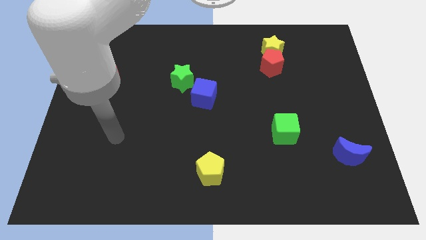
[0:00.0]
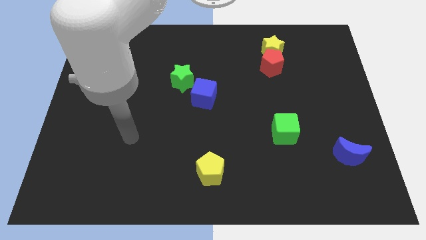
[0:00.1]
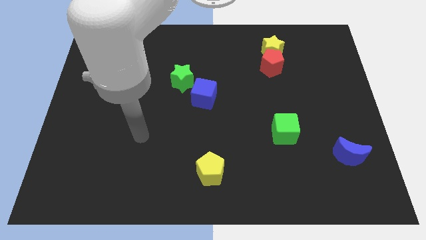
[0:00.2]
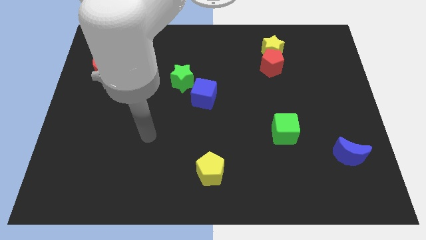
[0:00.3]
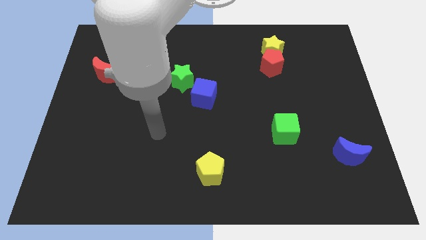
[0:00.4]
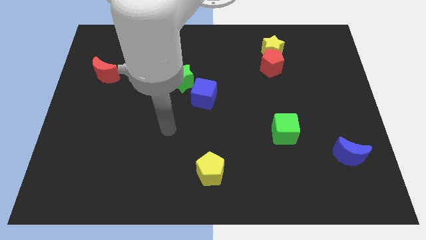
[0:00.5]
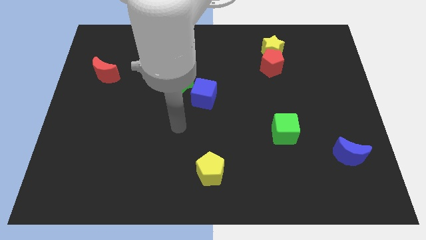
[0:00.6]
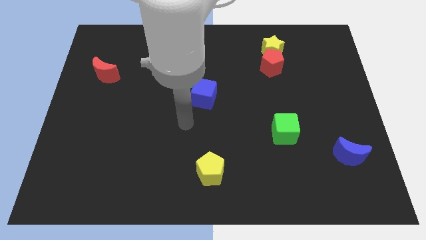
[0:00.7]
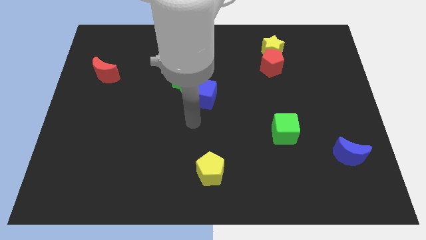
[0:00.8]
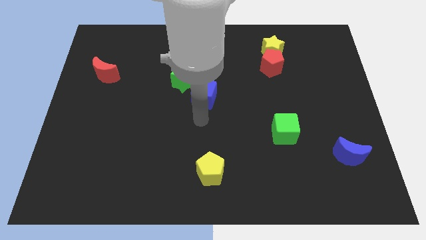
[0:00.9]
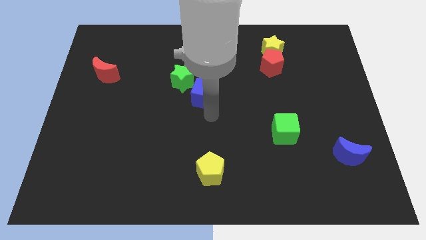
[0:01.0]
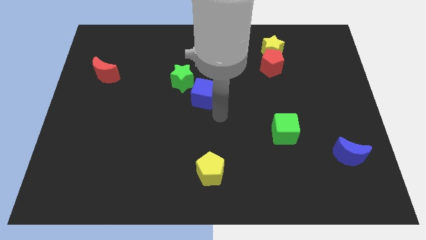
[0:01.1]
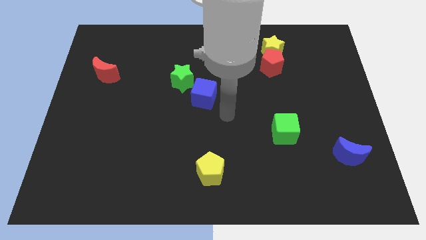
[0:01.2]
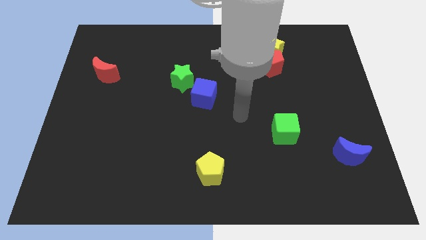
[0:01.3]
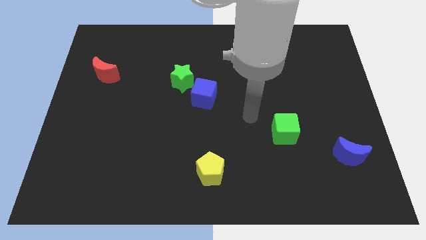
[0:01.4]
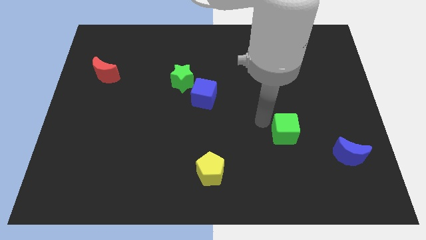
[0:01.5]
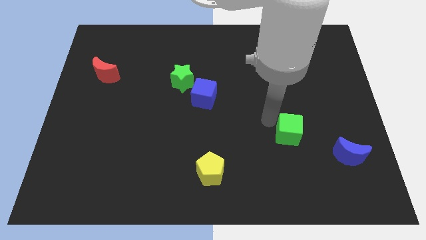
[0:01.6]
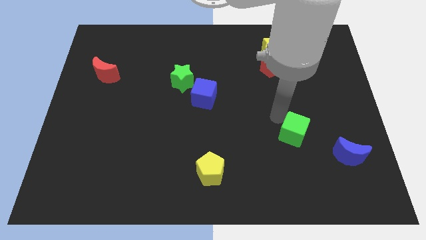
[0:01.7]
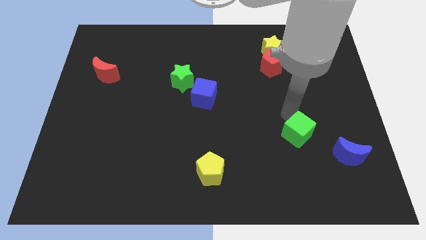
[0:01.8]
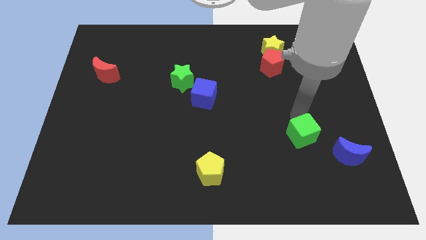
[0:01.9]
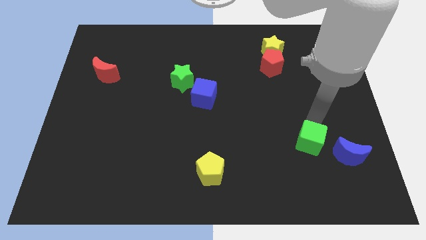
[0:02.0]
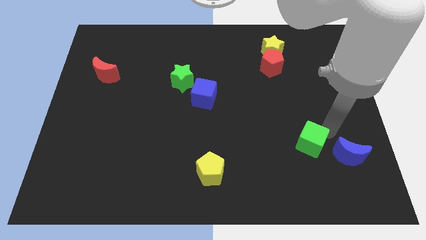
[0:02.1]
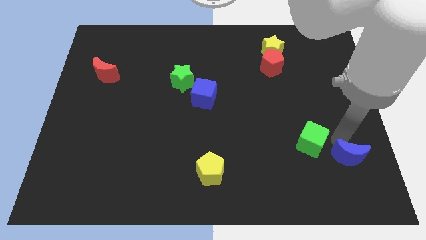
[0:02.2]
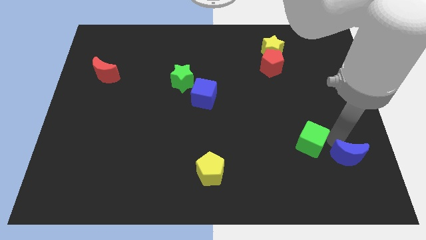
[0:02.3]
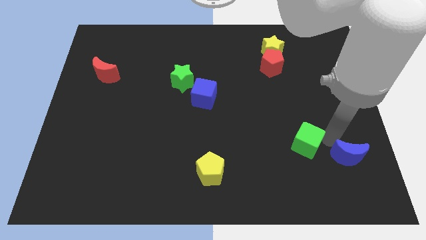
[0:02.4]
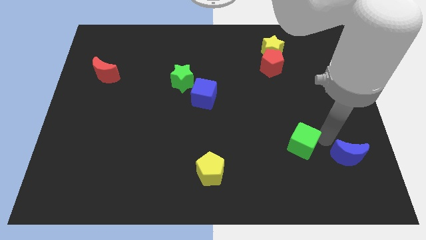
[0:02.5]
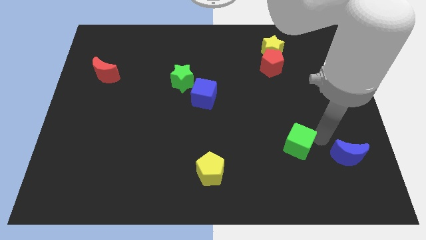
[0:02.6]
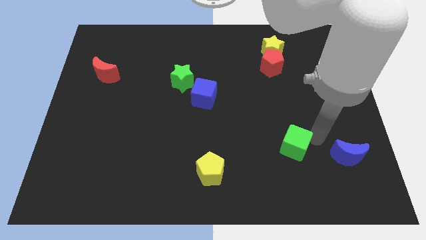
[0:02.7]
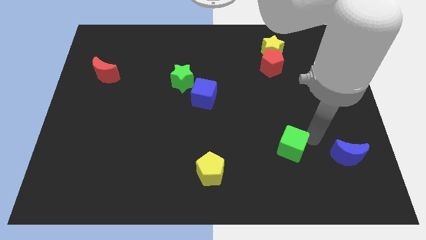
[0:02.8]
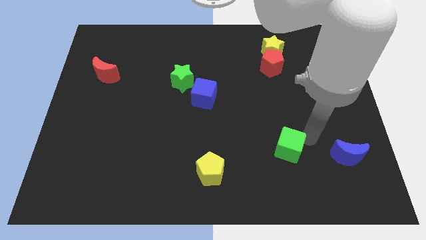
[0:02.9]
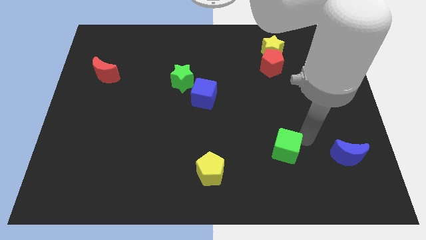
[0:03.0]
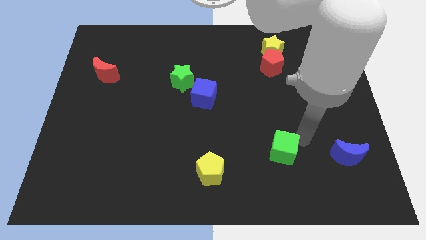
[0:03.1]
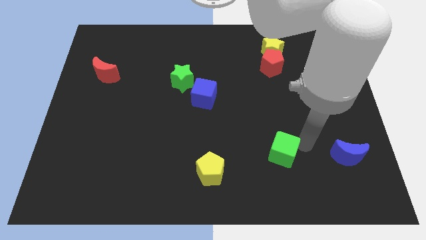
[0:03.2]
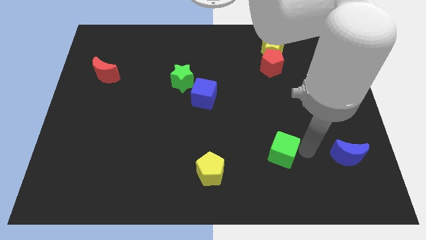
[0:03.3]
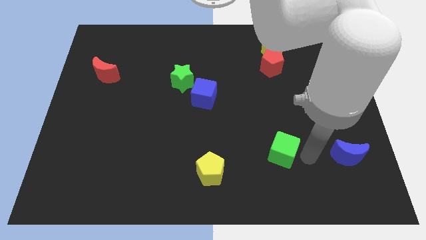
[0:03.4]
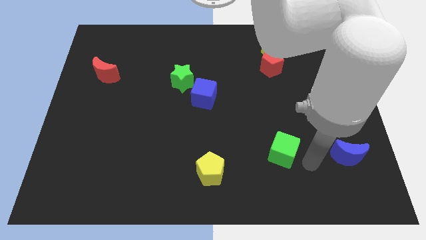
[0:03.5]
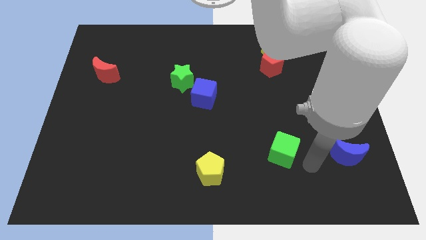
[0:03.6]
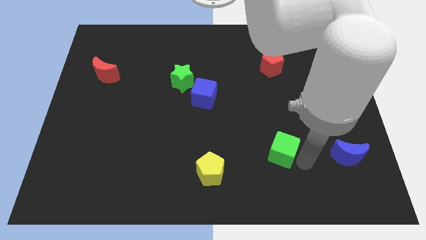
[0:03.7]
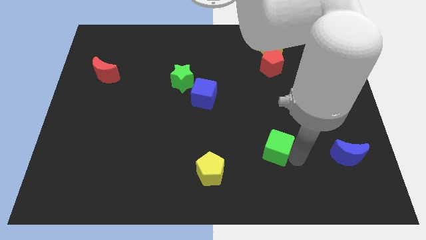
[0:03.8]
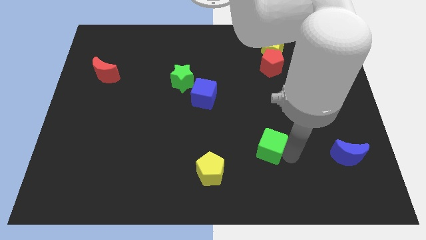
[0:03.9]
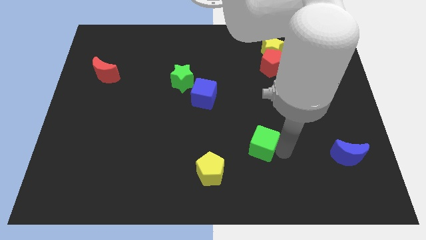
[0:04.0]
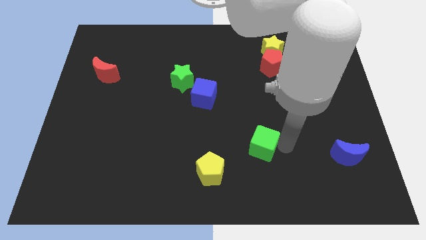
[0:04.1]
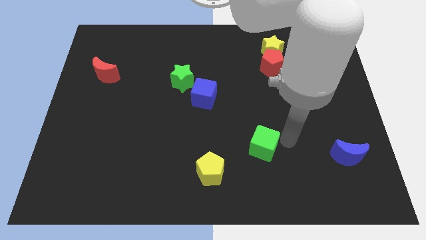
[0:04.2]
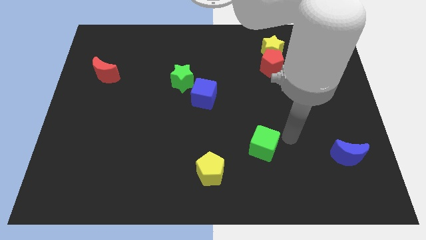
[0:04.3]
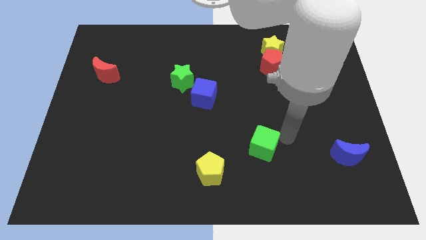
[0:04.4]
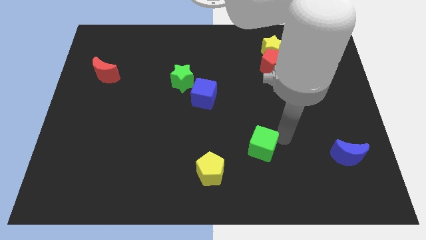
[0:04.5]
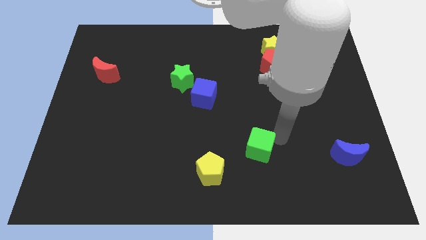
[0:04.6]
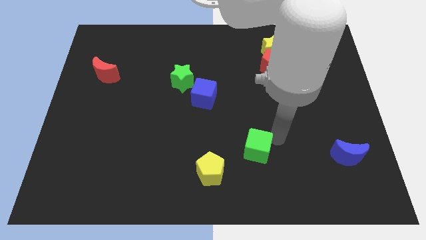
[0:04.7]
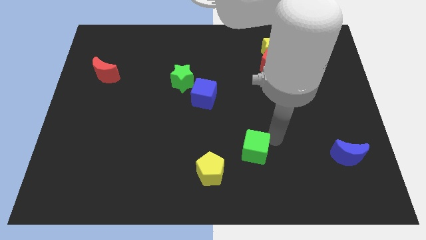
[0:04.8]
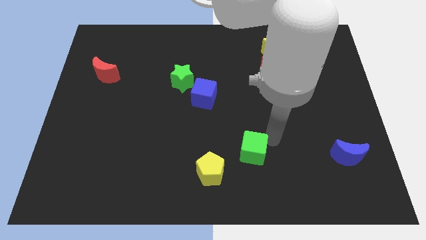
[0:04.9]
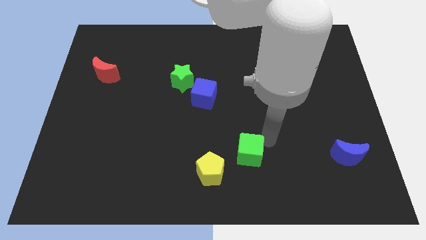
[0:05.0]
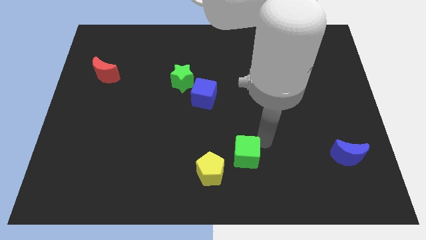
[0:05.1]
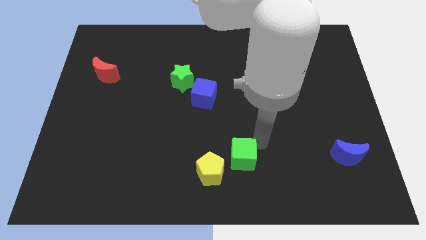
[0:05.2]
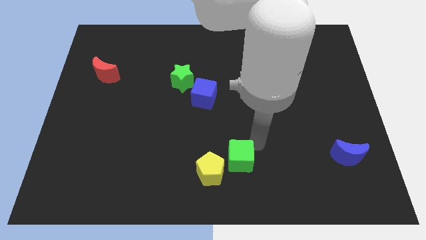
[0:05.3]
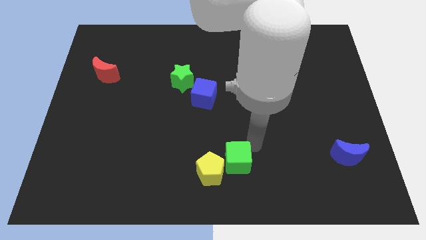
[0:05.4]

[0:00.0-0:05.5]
slide the green cube to the yellow pentagon

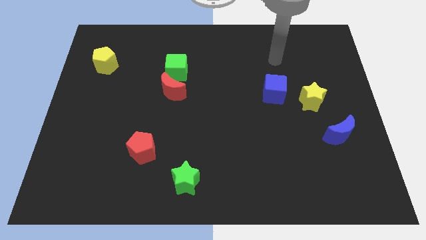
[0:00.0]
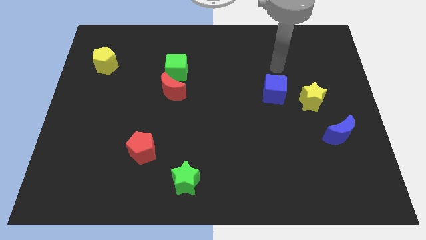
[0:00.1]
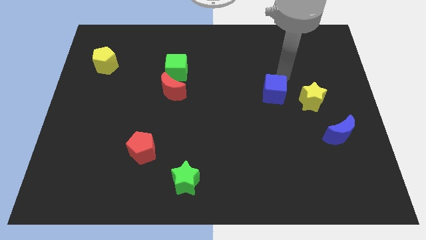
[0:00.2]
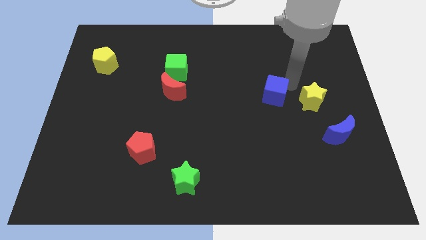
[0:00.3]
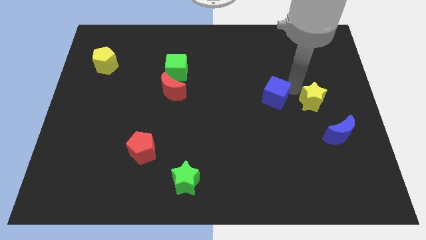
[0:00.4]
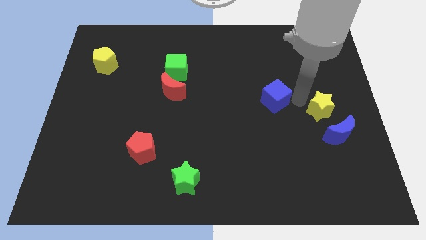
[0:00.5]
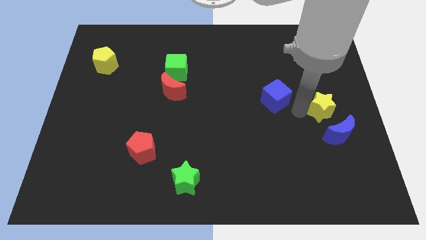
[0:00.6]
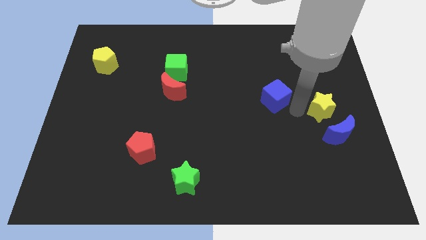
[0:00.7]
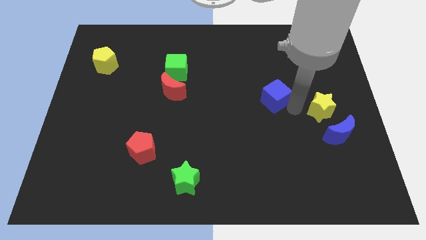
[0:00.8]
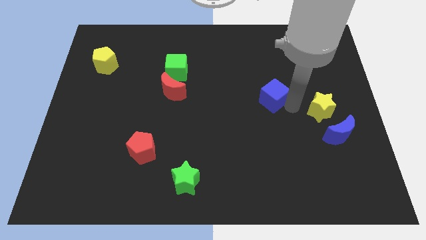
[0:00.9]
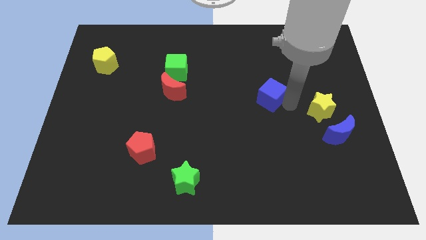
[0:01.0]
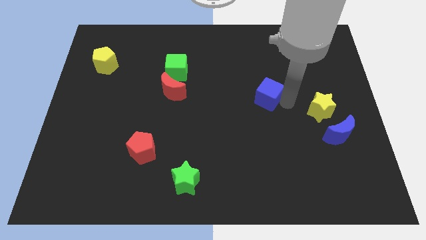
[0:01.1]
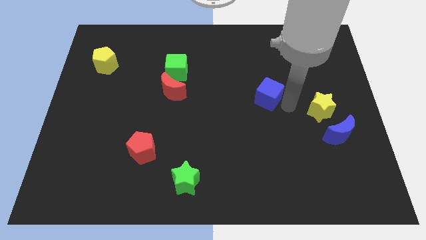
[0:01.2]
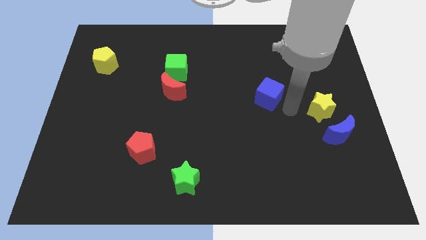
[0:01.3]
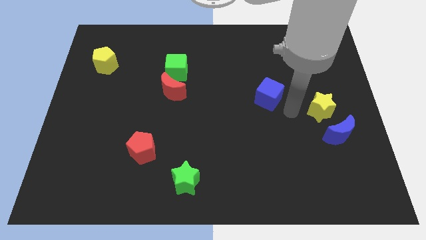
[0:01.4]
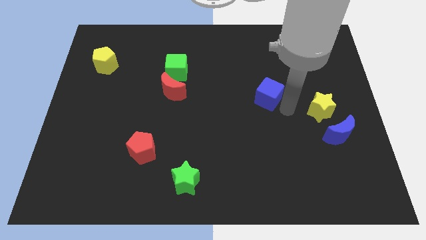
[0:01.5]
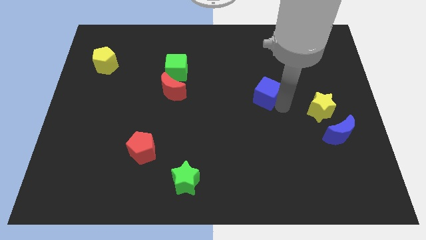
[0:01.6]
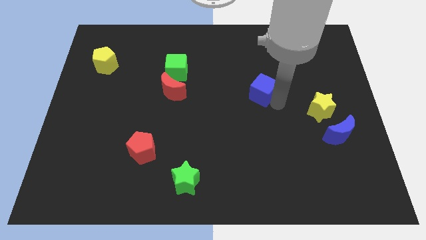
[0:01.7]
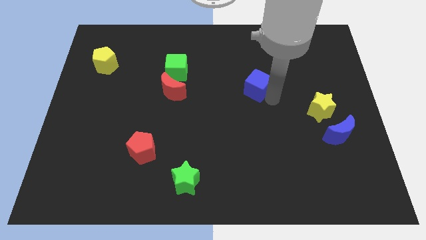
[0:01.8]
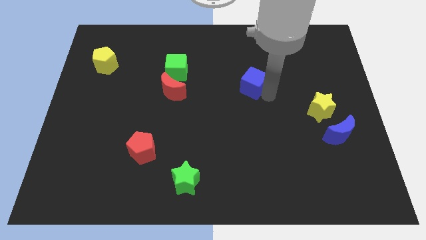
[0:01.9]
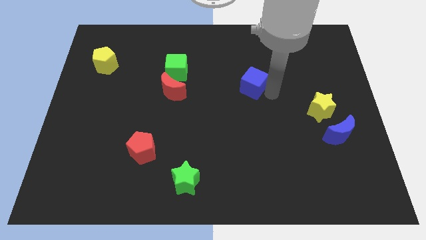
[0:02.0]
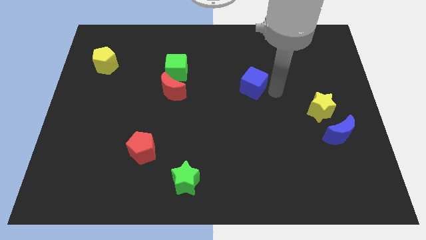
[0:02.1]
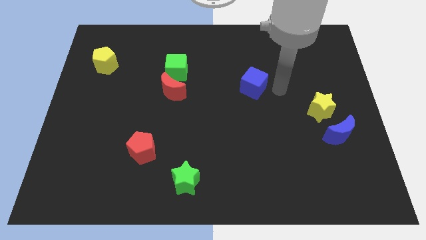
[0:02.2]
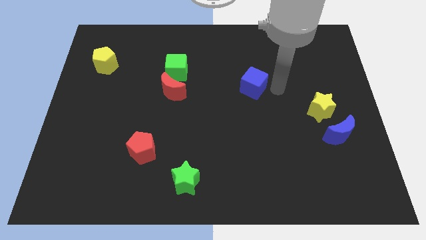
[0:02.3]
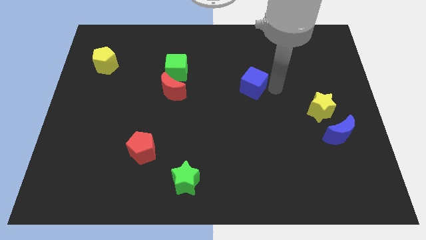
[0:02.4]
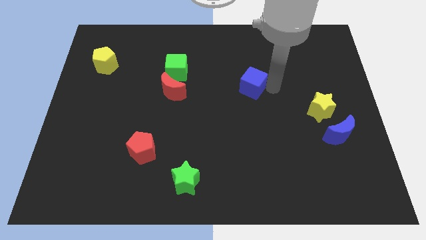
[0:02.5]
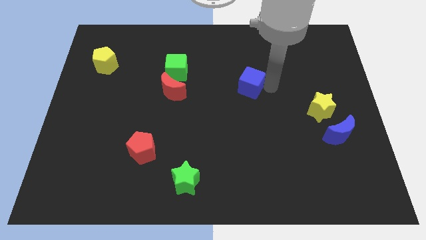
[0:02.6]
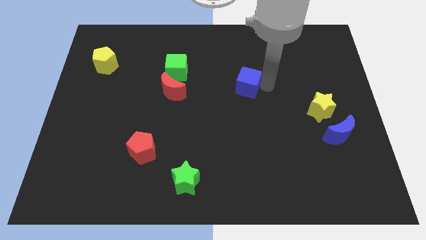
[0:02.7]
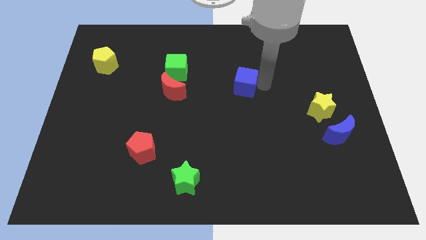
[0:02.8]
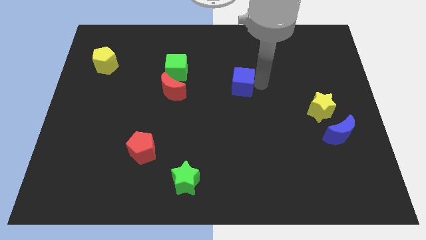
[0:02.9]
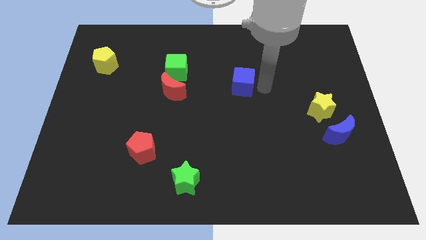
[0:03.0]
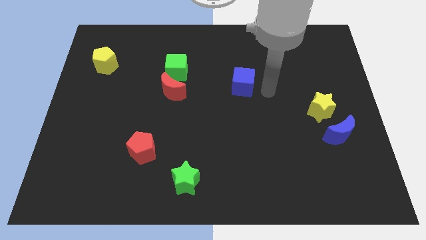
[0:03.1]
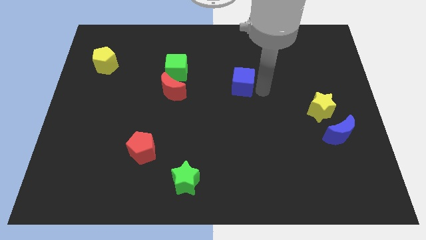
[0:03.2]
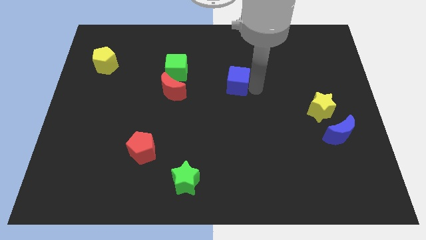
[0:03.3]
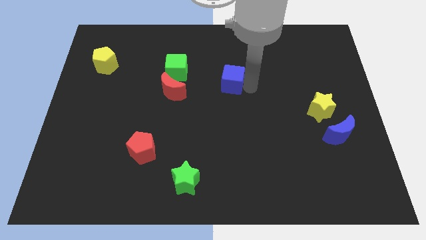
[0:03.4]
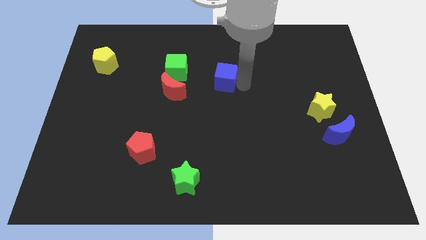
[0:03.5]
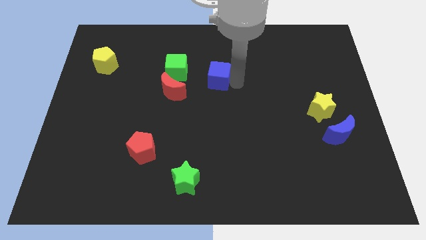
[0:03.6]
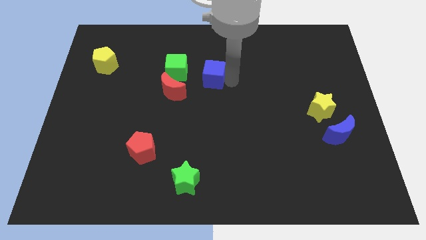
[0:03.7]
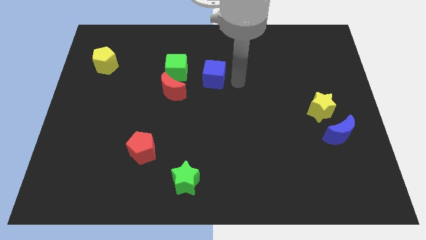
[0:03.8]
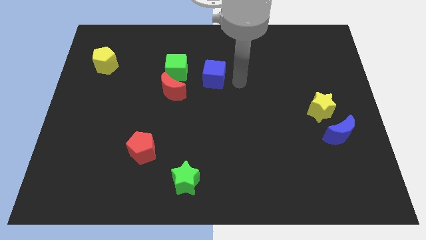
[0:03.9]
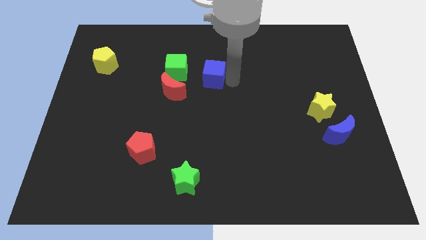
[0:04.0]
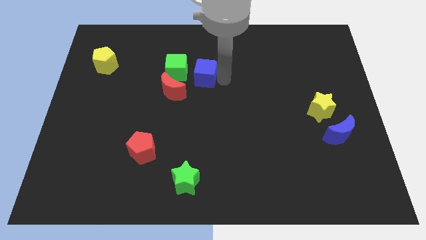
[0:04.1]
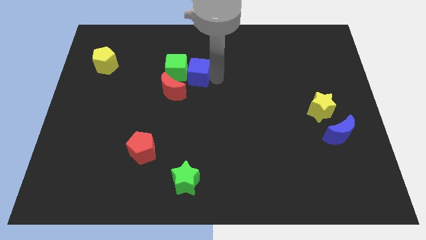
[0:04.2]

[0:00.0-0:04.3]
push the blue cube towards the green cube
